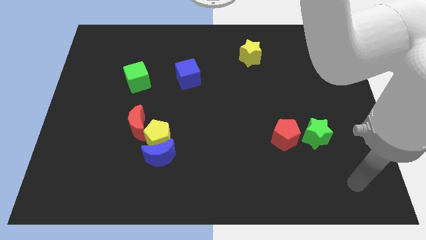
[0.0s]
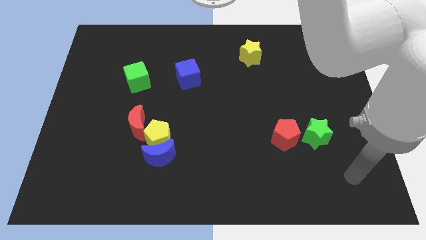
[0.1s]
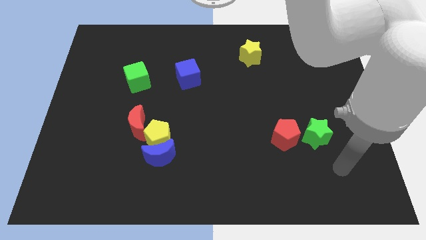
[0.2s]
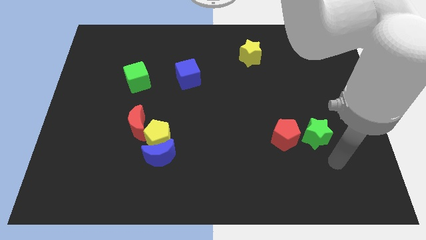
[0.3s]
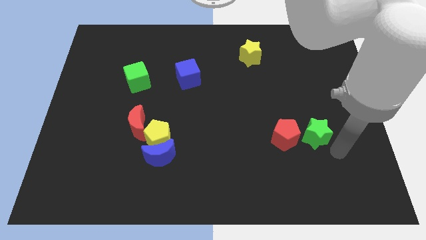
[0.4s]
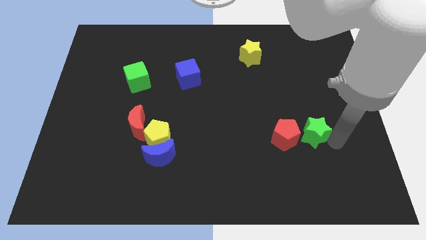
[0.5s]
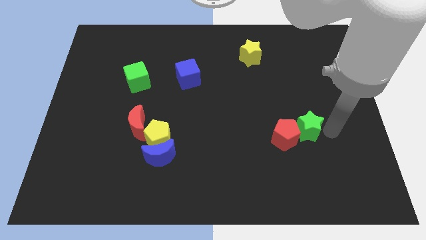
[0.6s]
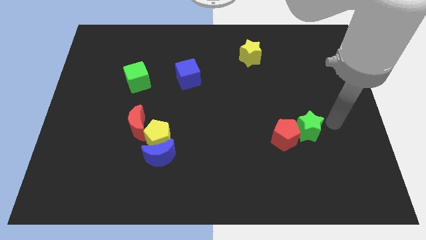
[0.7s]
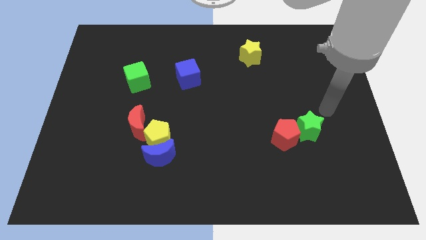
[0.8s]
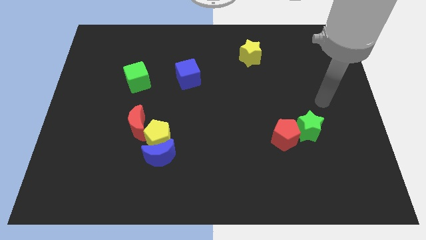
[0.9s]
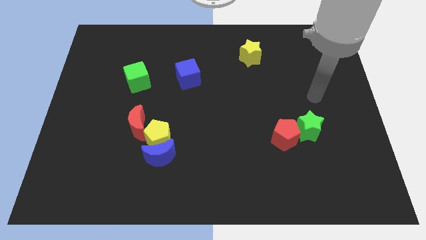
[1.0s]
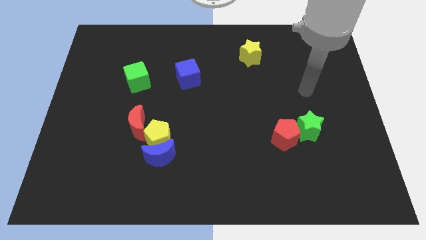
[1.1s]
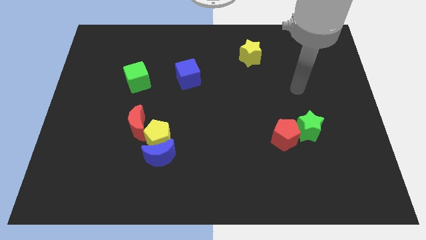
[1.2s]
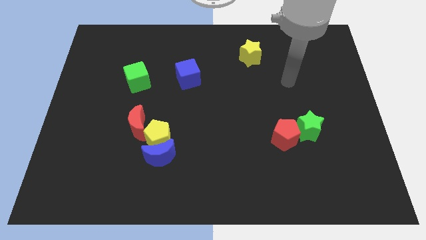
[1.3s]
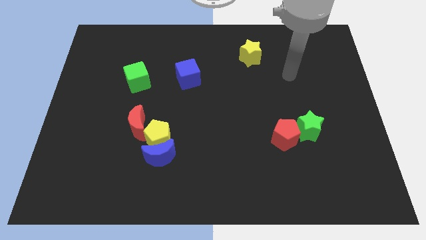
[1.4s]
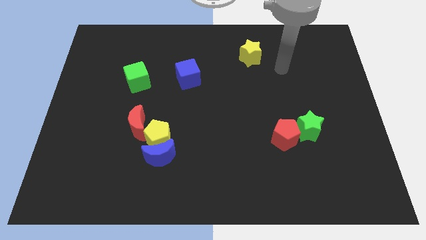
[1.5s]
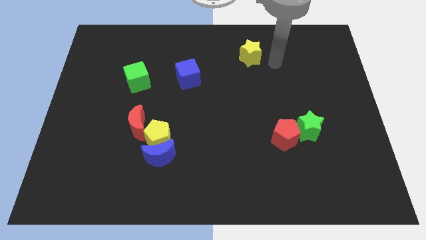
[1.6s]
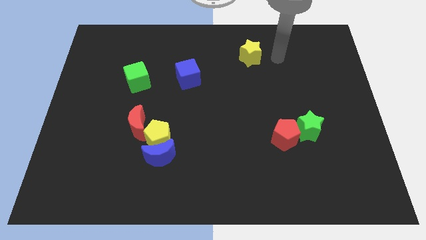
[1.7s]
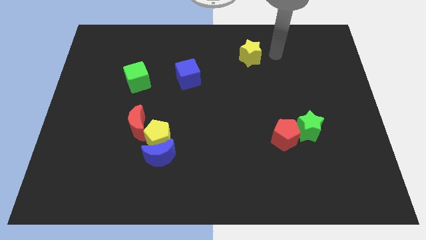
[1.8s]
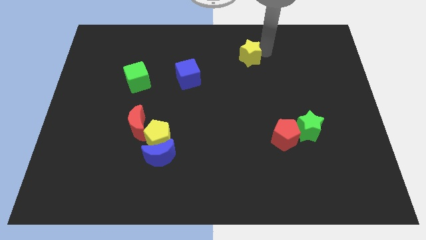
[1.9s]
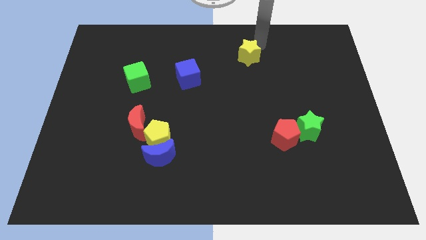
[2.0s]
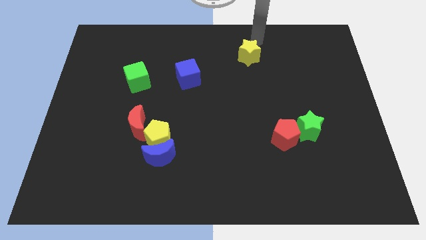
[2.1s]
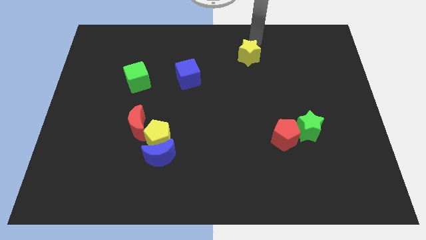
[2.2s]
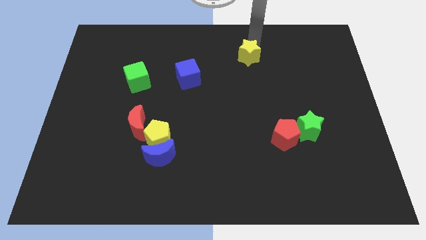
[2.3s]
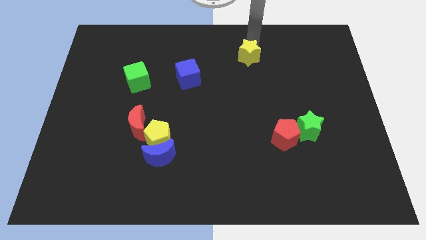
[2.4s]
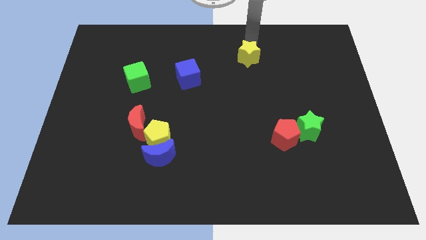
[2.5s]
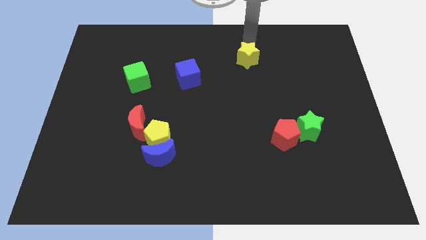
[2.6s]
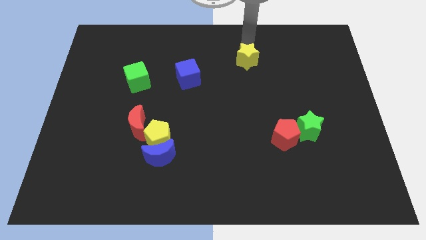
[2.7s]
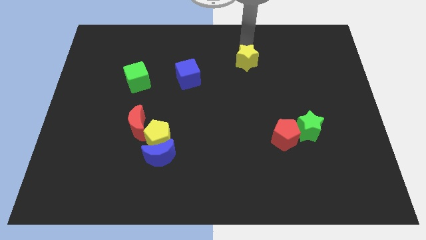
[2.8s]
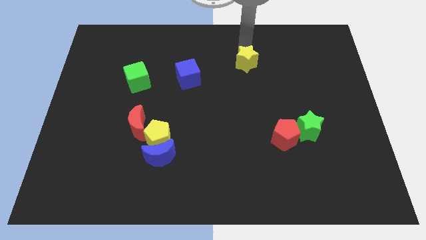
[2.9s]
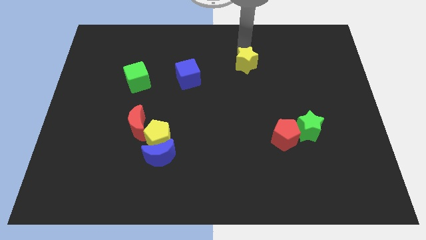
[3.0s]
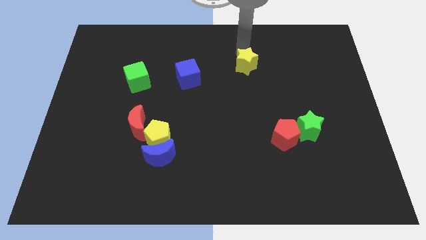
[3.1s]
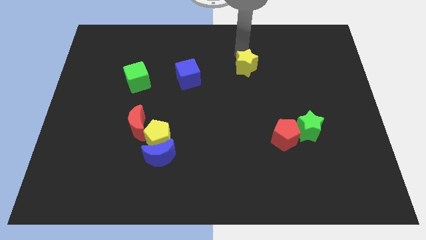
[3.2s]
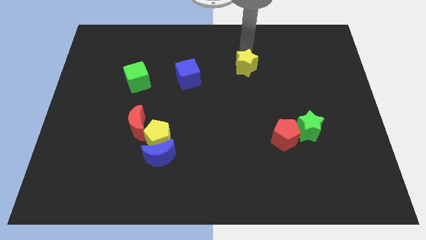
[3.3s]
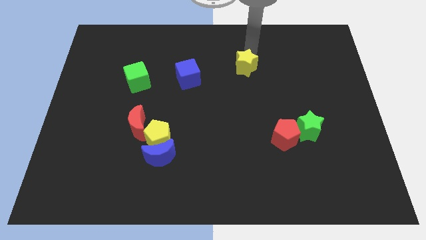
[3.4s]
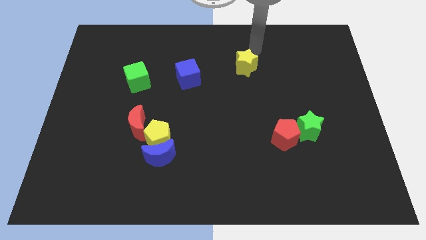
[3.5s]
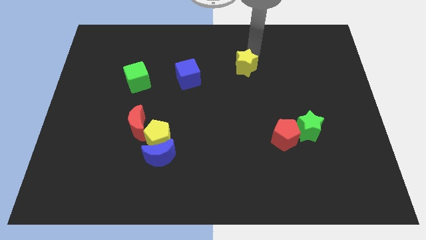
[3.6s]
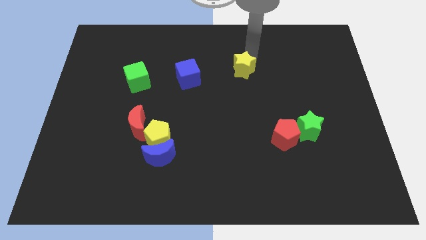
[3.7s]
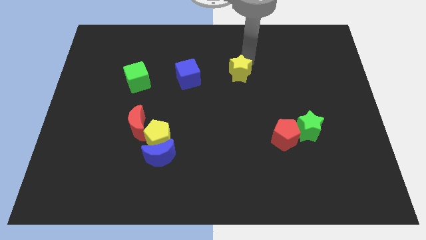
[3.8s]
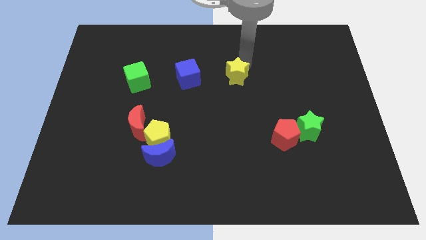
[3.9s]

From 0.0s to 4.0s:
slightly slide the yellow star diagonally downwards and to the left

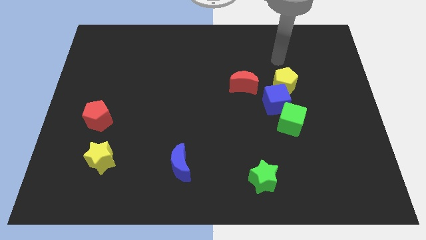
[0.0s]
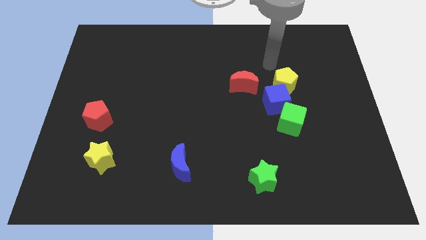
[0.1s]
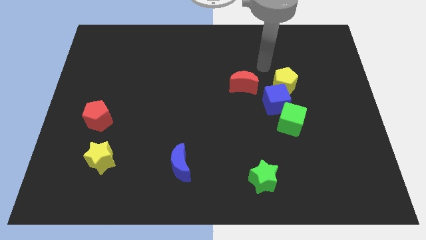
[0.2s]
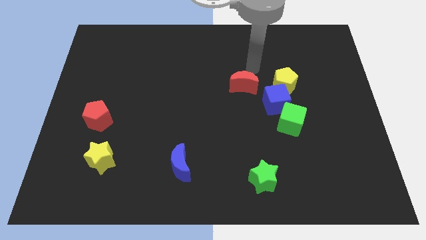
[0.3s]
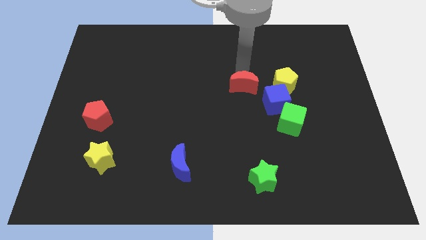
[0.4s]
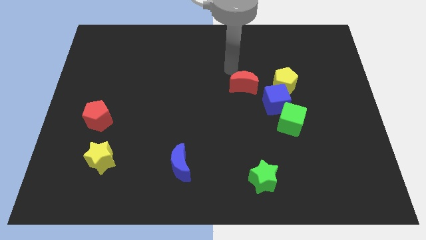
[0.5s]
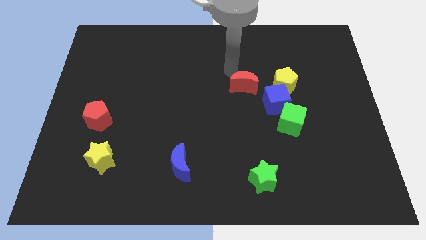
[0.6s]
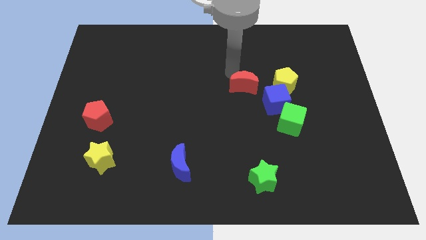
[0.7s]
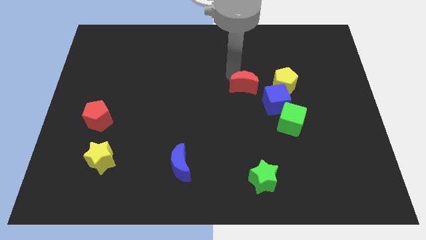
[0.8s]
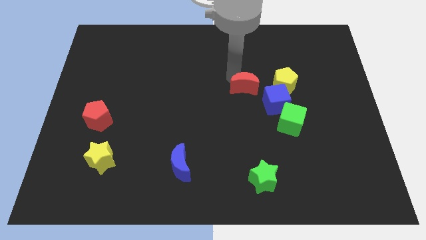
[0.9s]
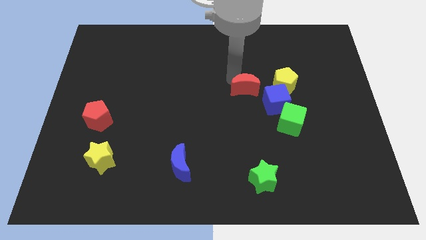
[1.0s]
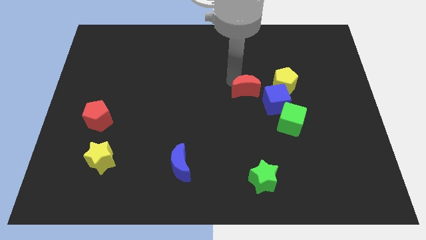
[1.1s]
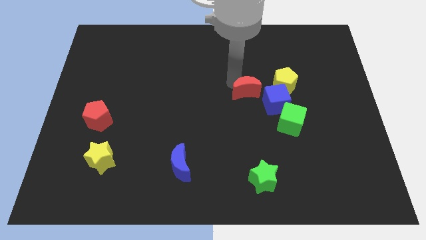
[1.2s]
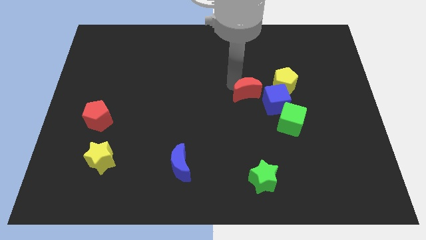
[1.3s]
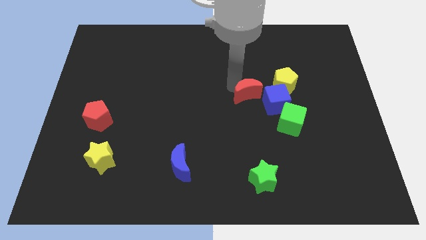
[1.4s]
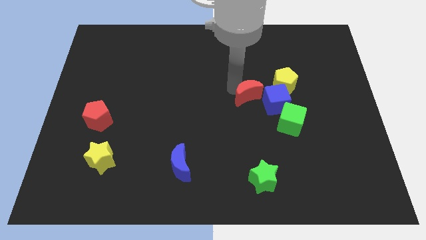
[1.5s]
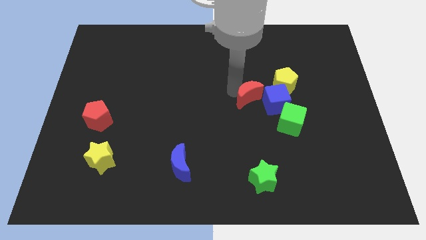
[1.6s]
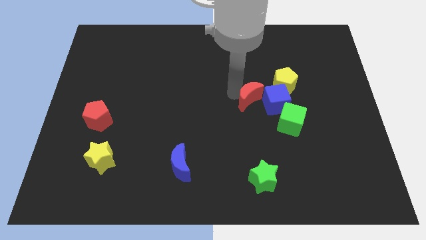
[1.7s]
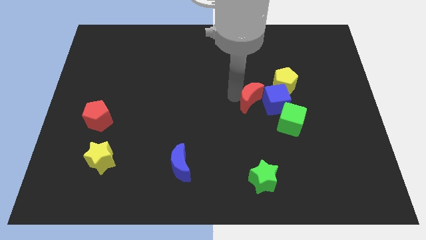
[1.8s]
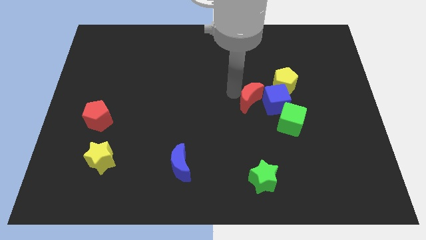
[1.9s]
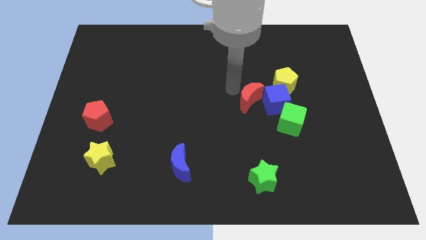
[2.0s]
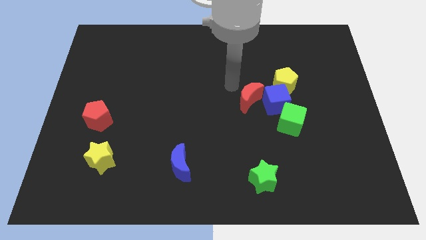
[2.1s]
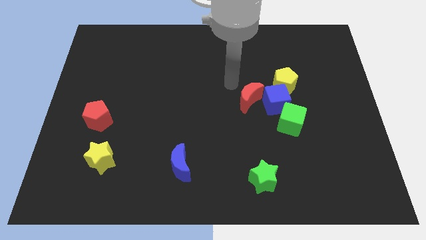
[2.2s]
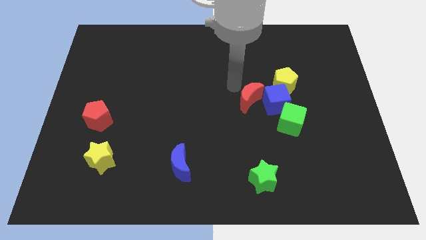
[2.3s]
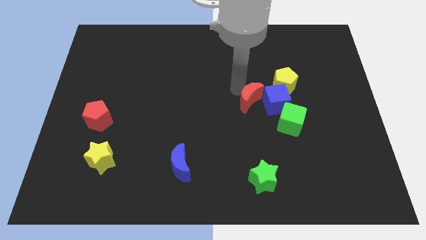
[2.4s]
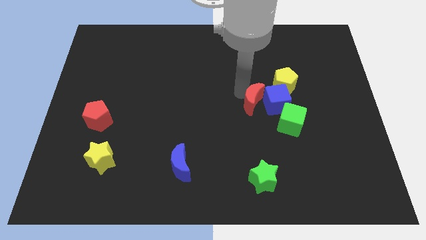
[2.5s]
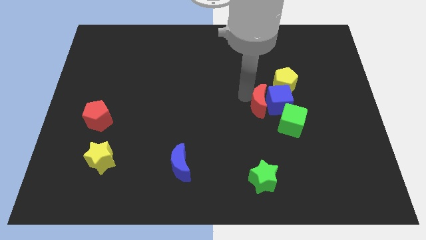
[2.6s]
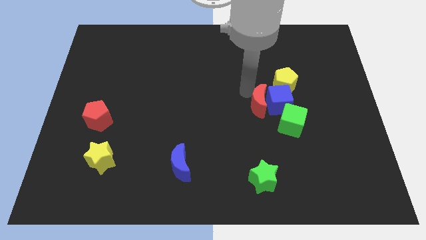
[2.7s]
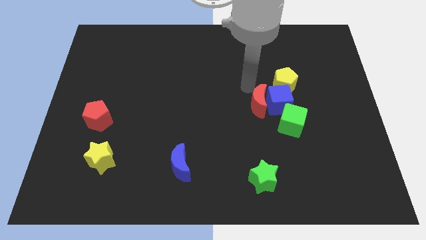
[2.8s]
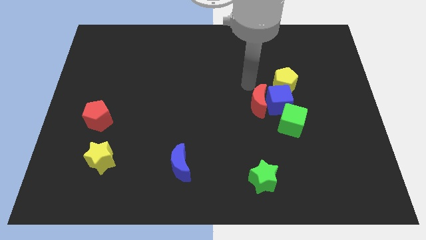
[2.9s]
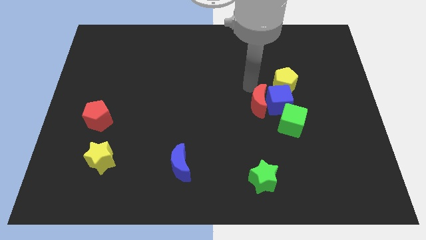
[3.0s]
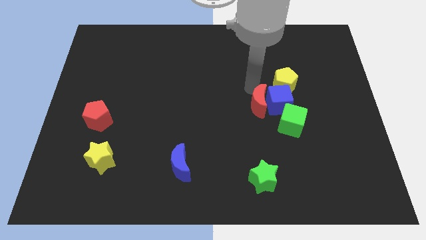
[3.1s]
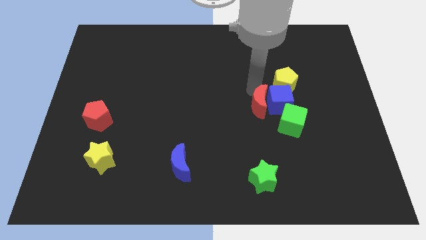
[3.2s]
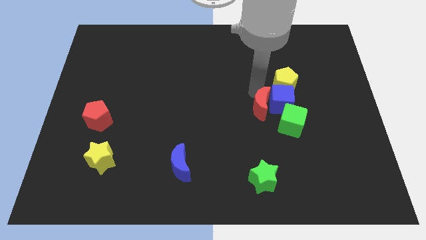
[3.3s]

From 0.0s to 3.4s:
slightly move the red moon down and right diagonally

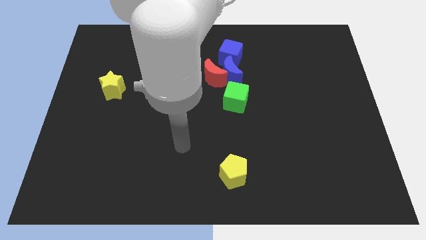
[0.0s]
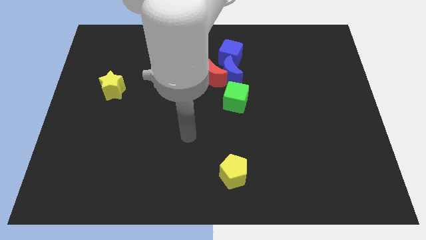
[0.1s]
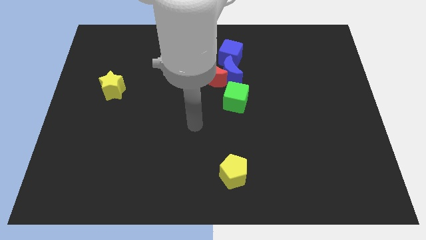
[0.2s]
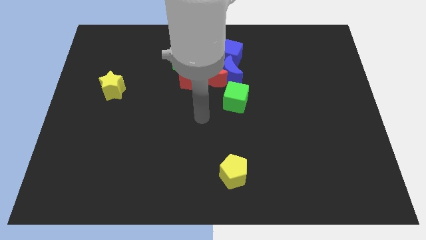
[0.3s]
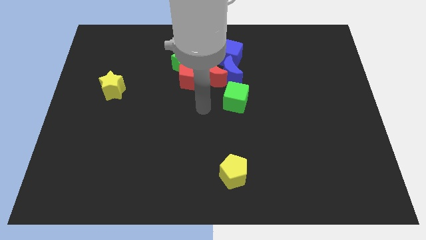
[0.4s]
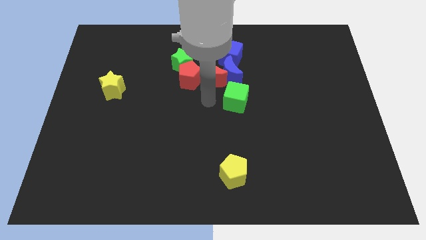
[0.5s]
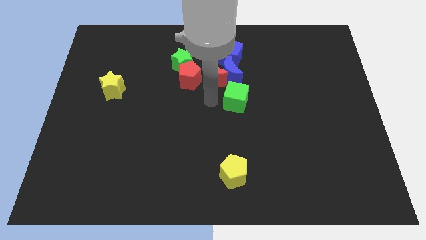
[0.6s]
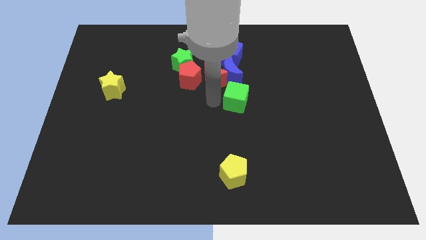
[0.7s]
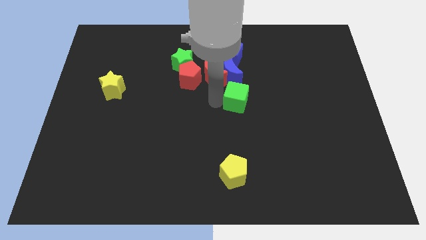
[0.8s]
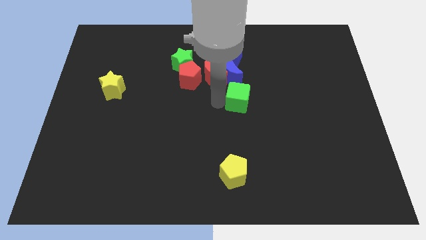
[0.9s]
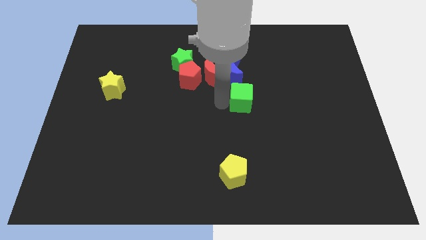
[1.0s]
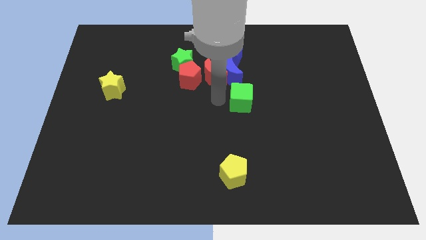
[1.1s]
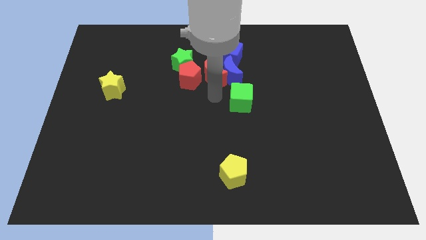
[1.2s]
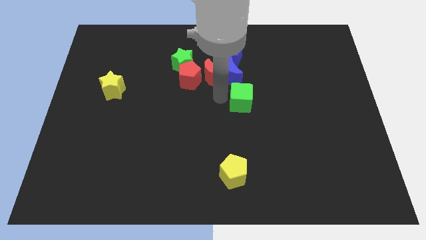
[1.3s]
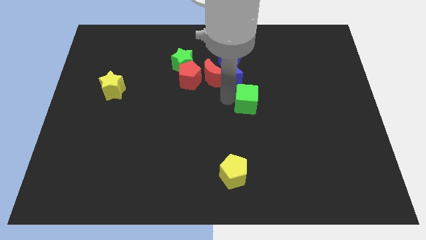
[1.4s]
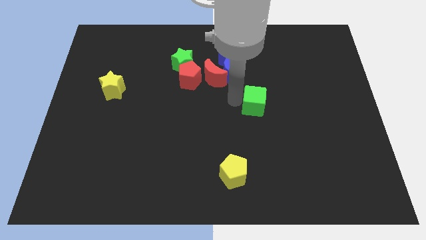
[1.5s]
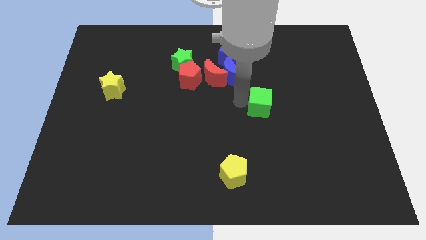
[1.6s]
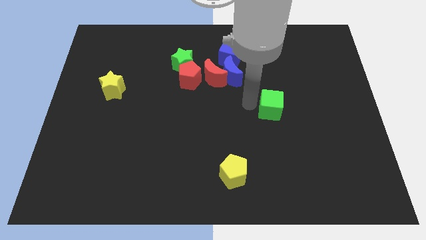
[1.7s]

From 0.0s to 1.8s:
slightly push the green cube right
